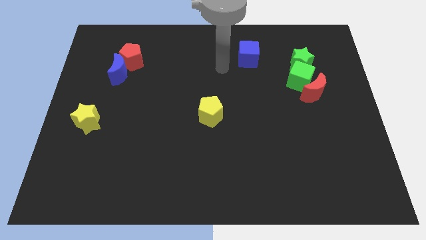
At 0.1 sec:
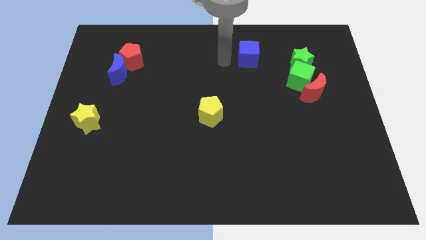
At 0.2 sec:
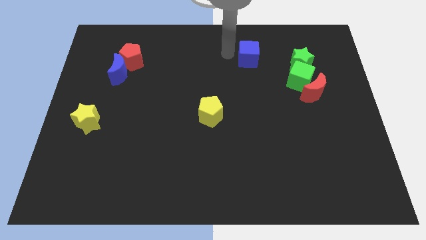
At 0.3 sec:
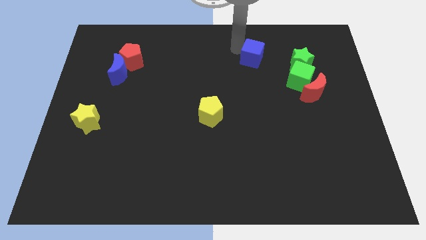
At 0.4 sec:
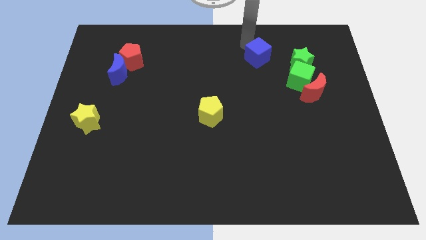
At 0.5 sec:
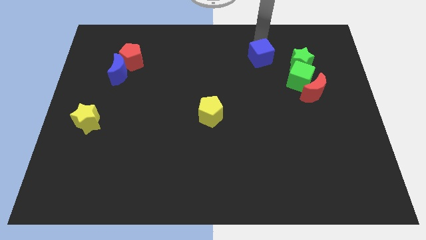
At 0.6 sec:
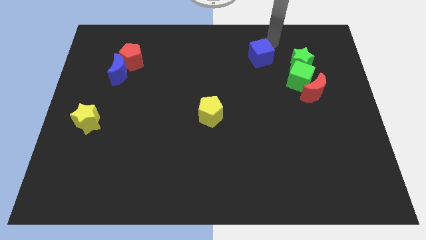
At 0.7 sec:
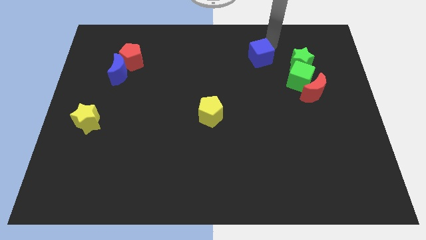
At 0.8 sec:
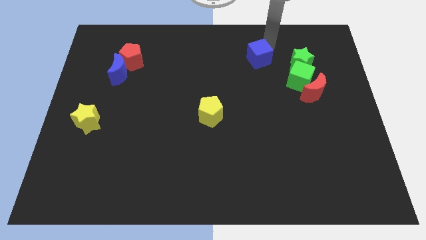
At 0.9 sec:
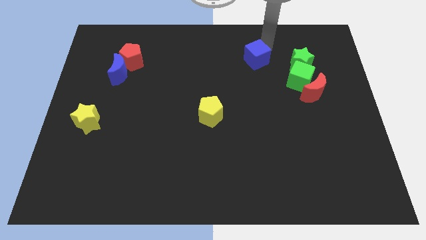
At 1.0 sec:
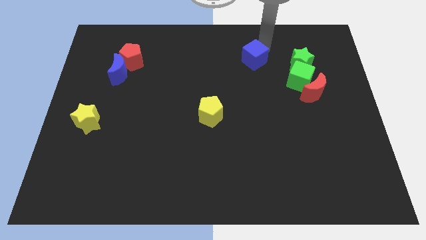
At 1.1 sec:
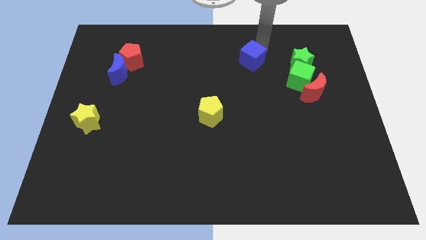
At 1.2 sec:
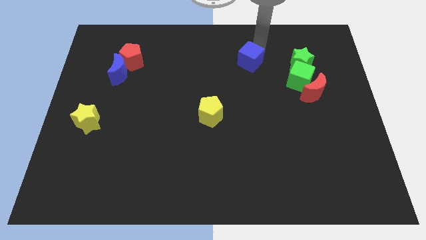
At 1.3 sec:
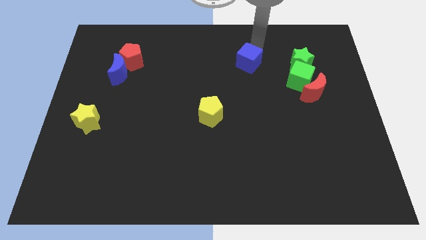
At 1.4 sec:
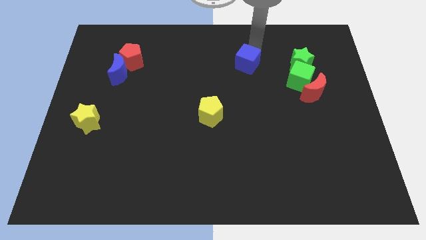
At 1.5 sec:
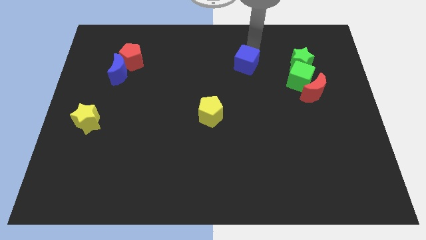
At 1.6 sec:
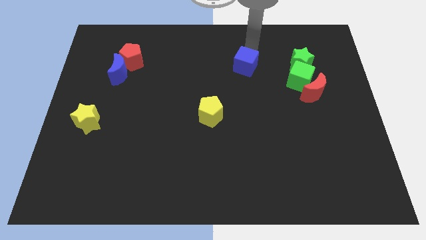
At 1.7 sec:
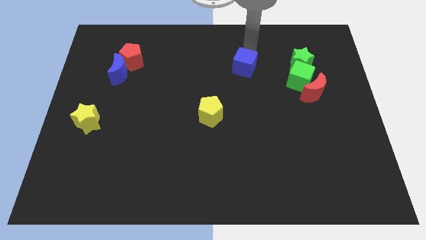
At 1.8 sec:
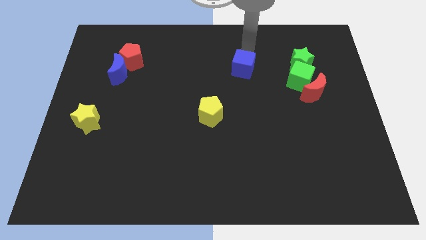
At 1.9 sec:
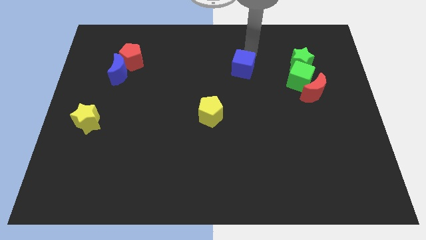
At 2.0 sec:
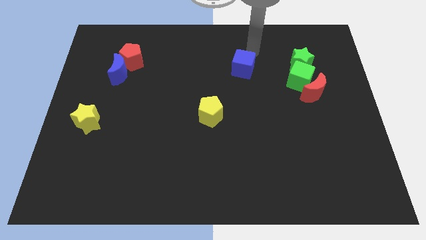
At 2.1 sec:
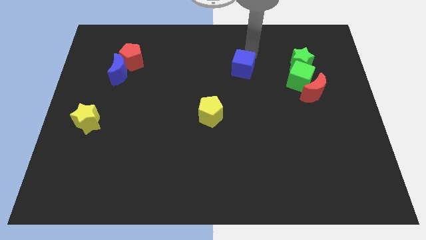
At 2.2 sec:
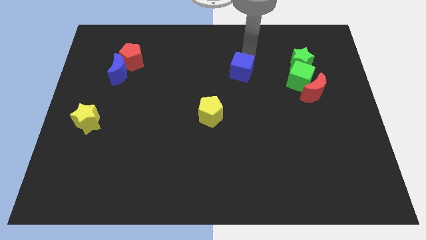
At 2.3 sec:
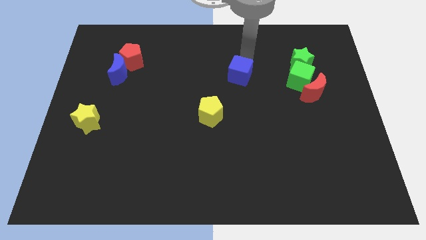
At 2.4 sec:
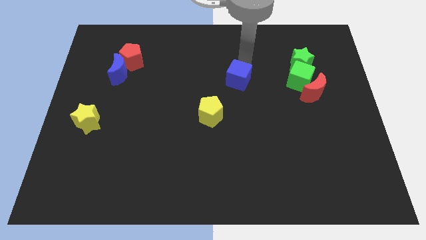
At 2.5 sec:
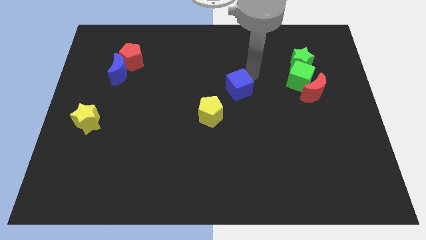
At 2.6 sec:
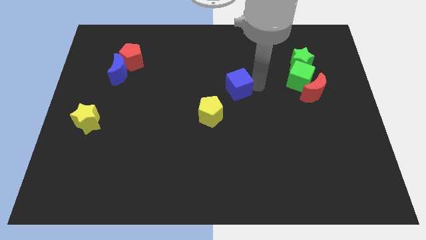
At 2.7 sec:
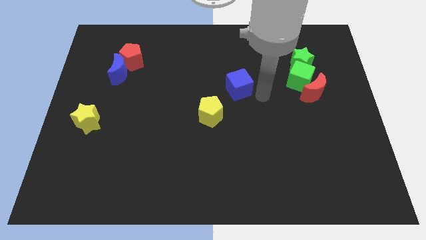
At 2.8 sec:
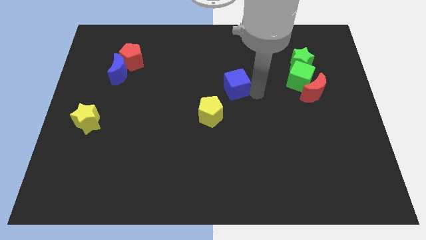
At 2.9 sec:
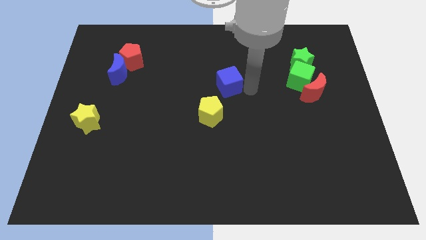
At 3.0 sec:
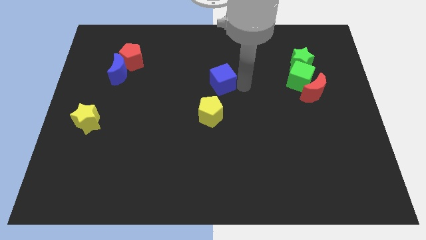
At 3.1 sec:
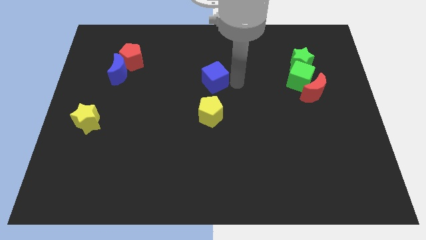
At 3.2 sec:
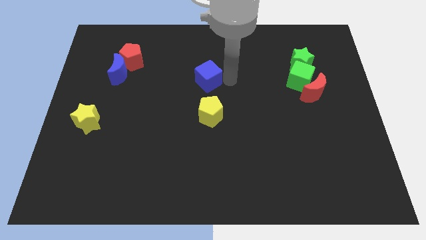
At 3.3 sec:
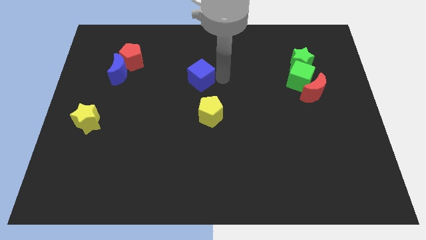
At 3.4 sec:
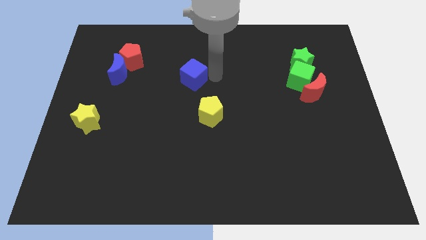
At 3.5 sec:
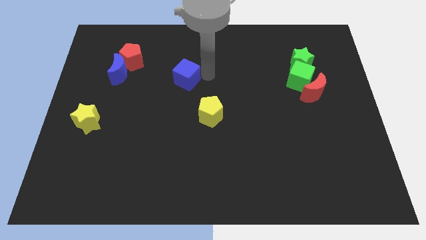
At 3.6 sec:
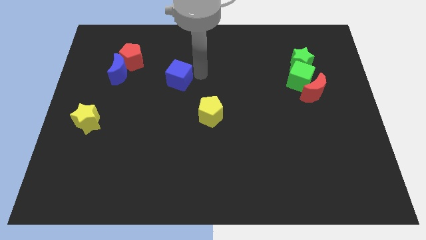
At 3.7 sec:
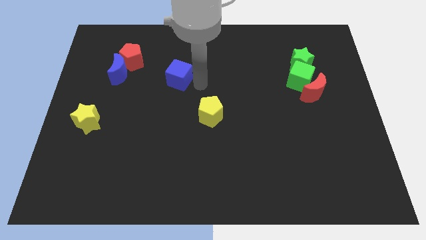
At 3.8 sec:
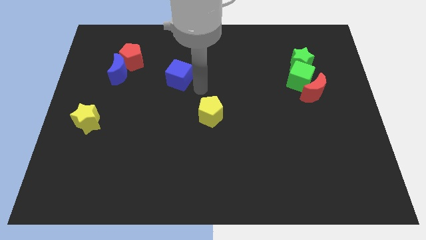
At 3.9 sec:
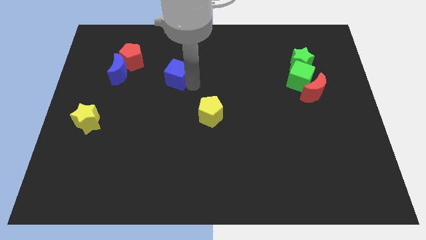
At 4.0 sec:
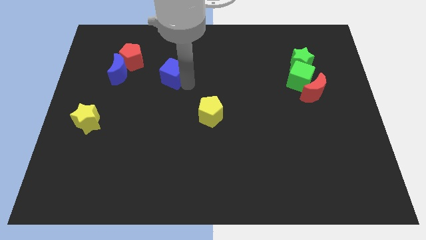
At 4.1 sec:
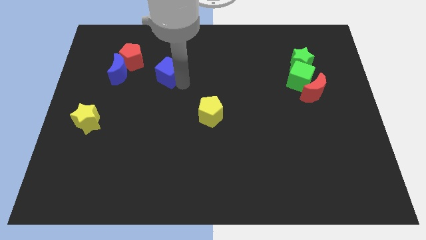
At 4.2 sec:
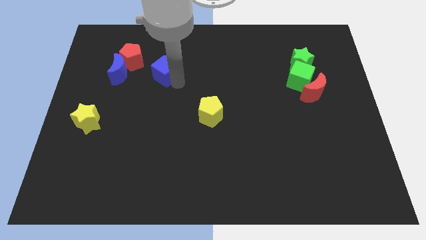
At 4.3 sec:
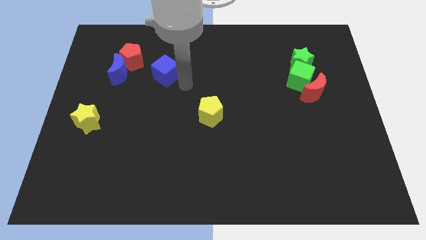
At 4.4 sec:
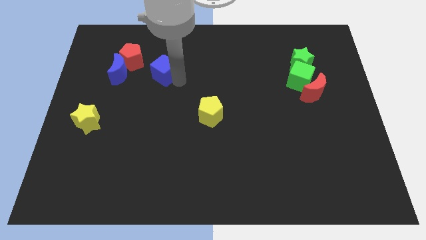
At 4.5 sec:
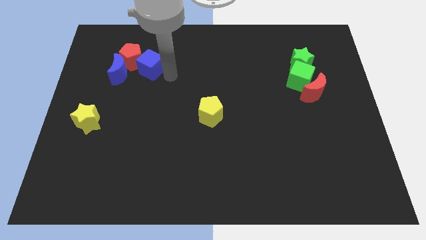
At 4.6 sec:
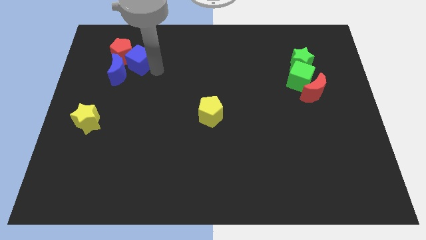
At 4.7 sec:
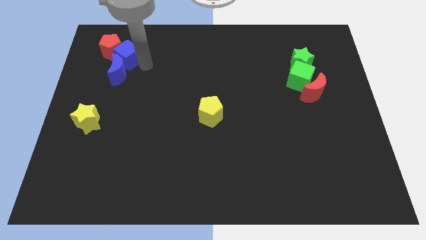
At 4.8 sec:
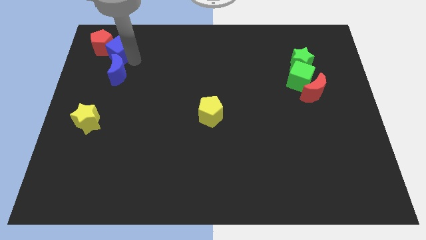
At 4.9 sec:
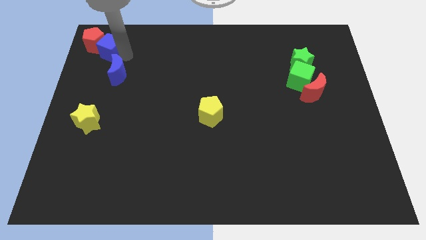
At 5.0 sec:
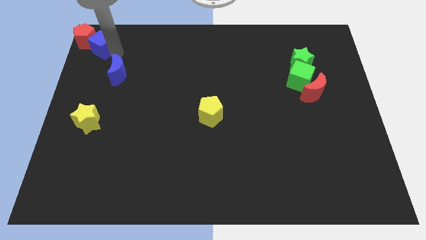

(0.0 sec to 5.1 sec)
slide the blue cube to the upper left corner

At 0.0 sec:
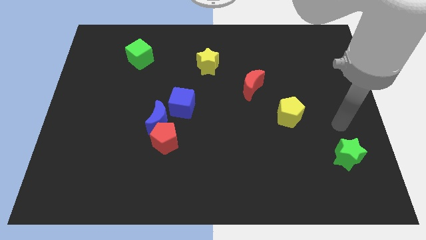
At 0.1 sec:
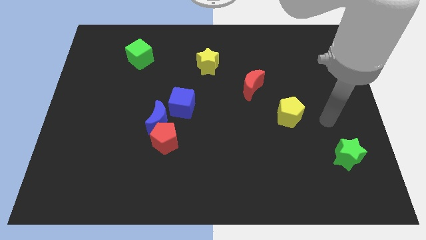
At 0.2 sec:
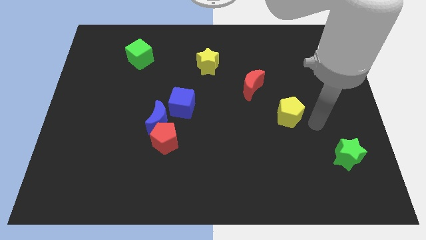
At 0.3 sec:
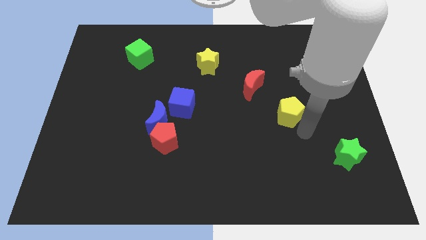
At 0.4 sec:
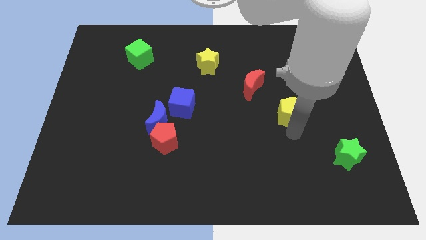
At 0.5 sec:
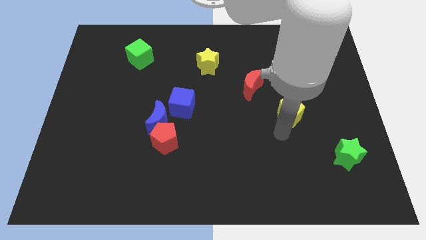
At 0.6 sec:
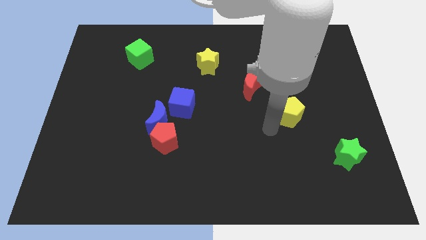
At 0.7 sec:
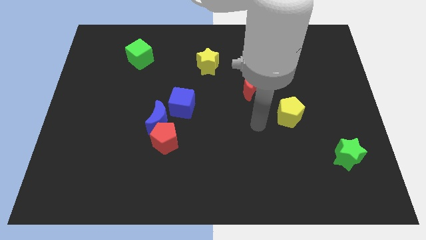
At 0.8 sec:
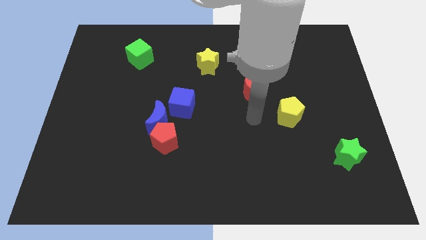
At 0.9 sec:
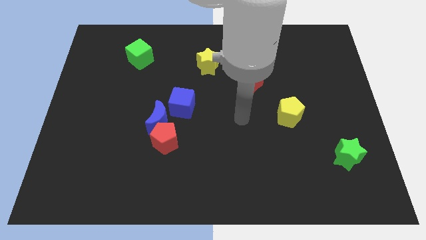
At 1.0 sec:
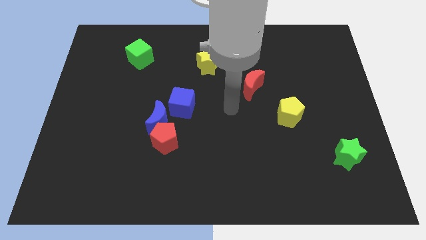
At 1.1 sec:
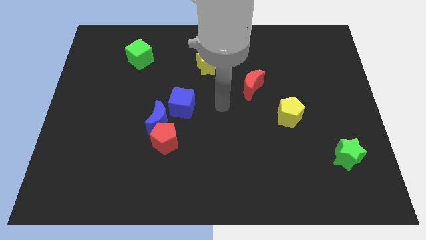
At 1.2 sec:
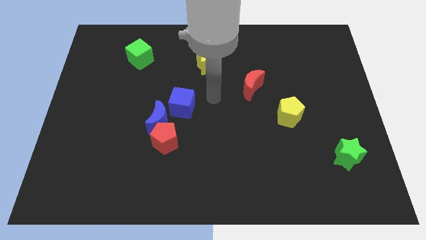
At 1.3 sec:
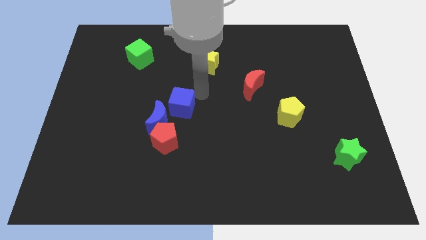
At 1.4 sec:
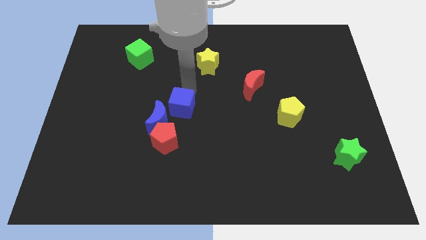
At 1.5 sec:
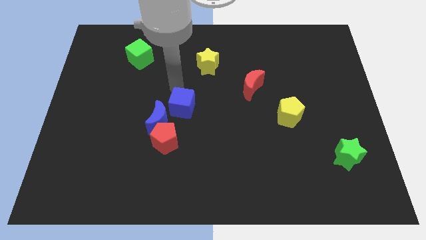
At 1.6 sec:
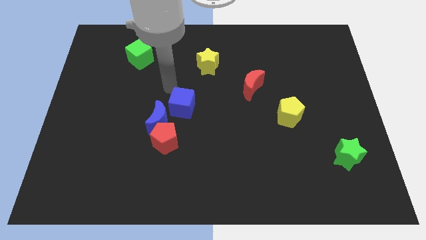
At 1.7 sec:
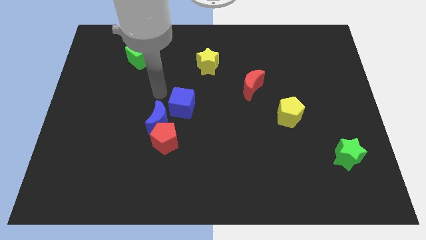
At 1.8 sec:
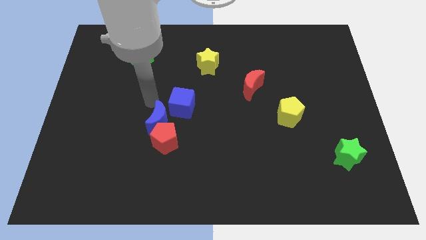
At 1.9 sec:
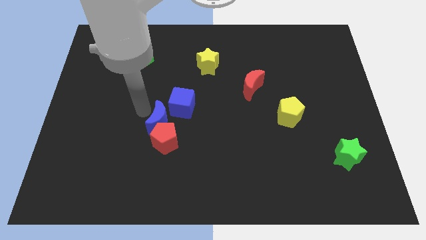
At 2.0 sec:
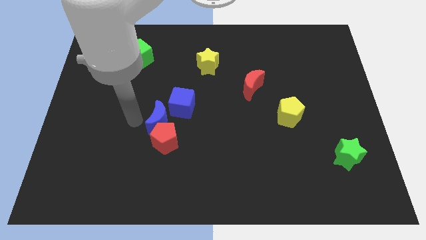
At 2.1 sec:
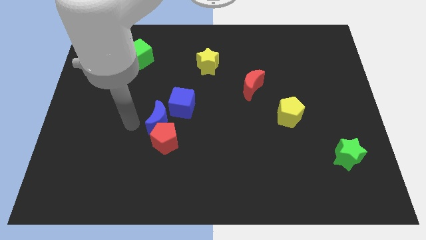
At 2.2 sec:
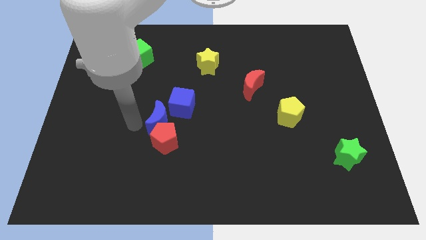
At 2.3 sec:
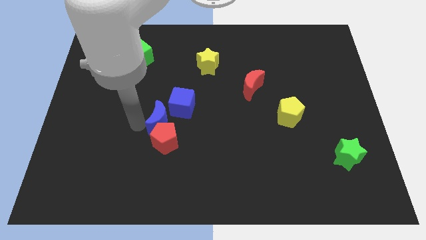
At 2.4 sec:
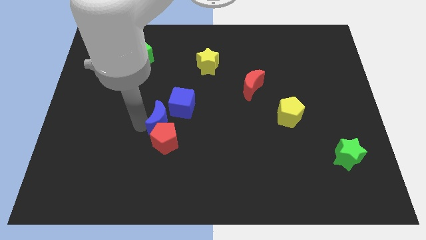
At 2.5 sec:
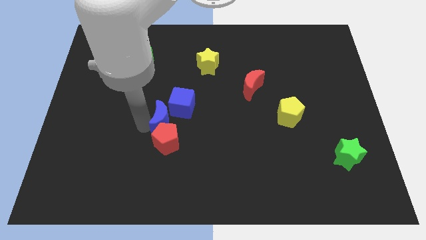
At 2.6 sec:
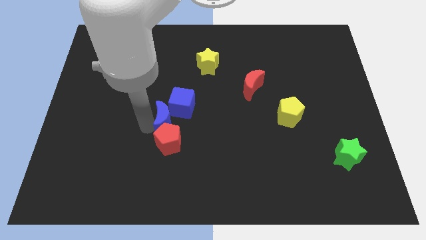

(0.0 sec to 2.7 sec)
push the blue moon to the center of the board
